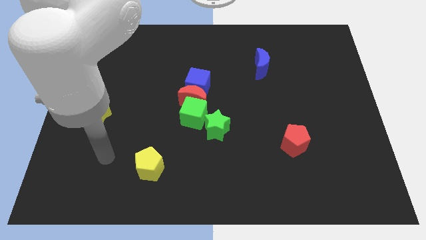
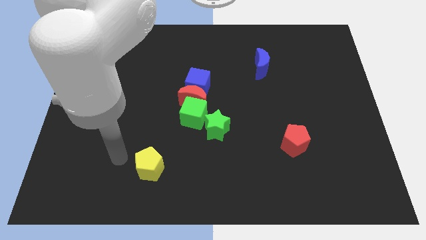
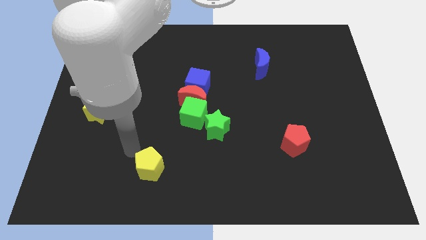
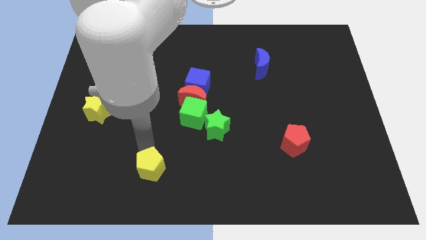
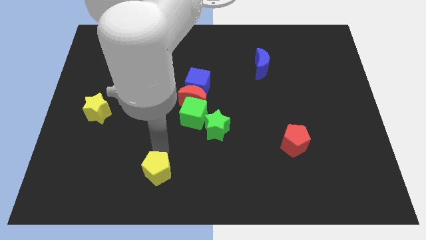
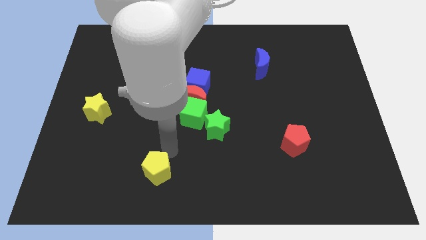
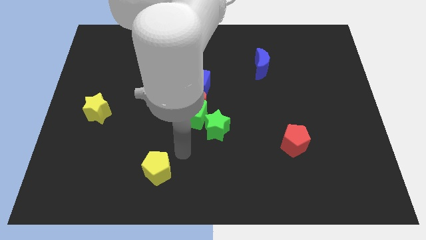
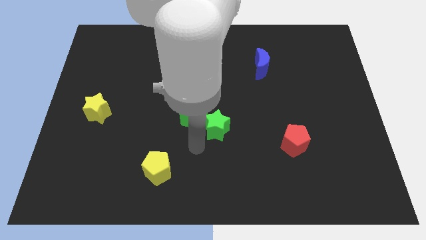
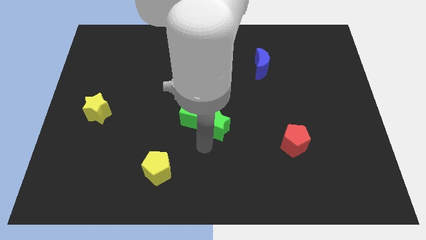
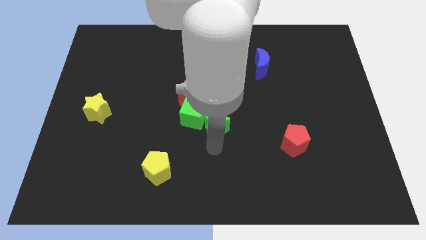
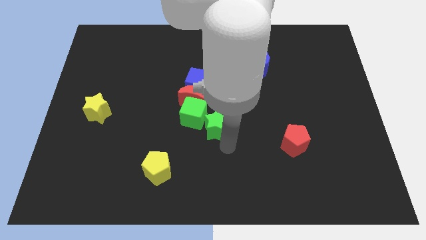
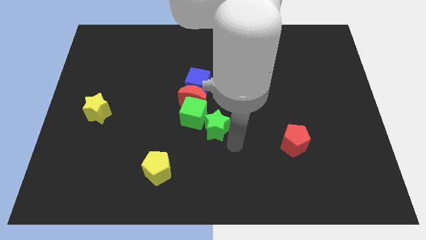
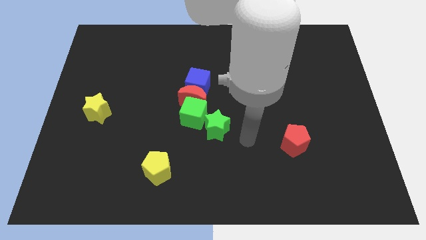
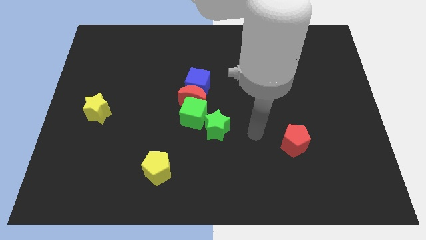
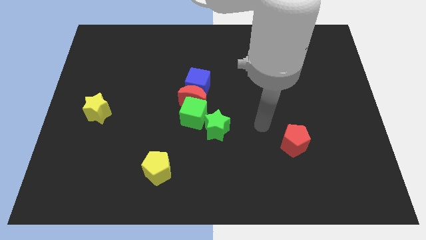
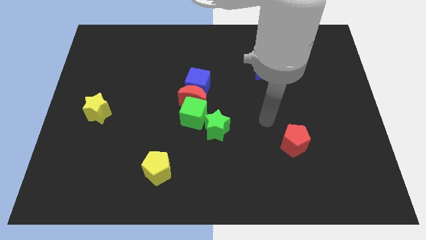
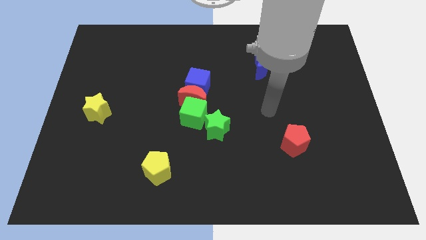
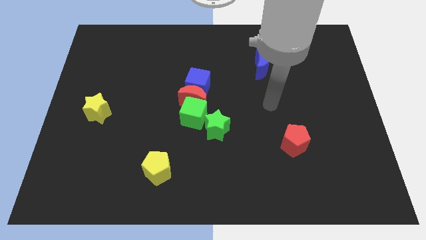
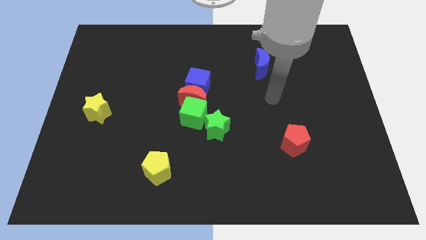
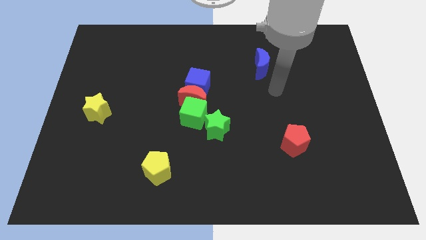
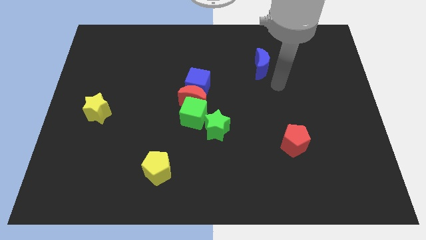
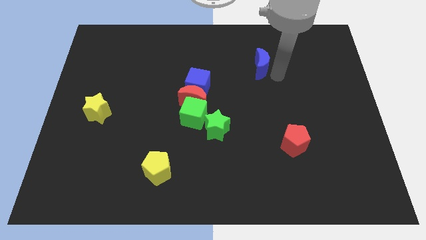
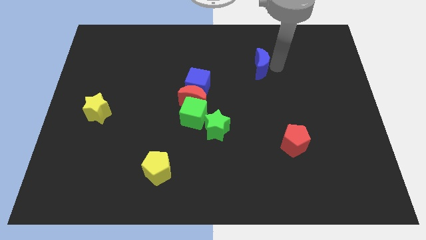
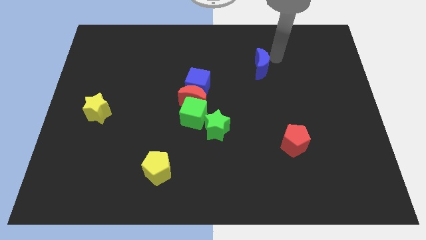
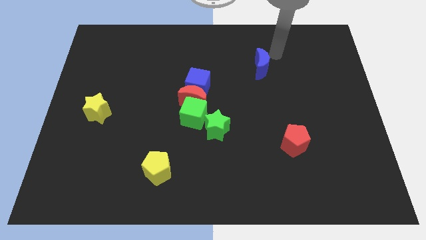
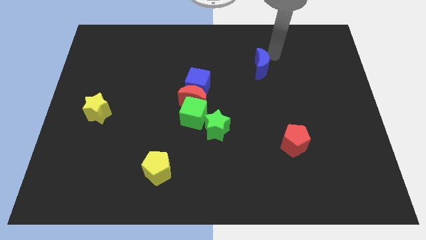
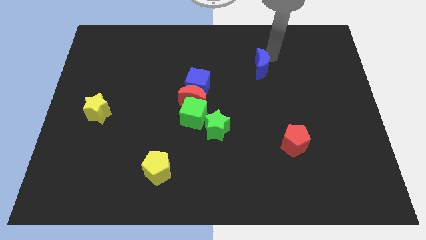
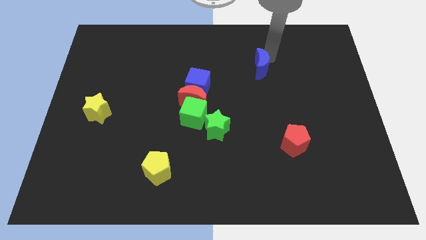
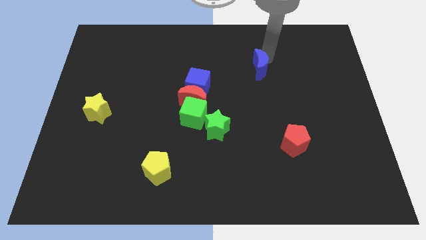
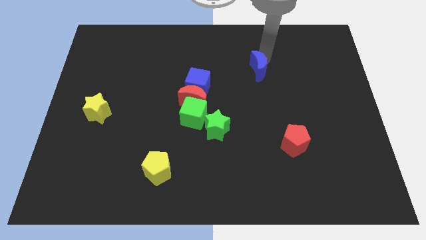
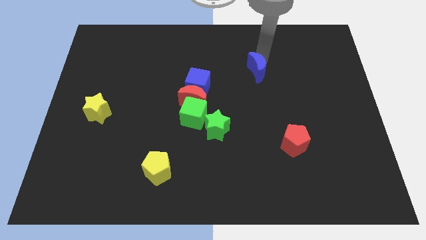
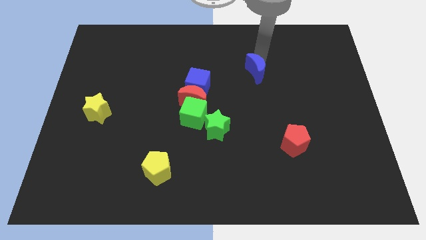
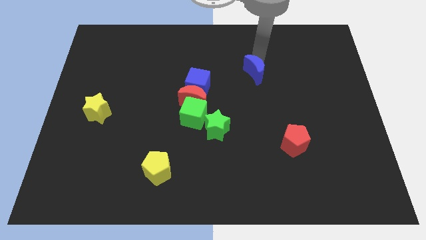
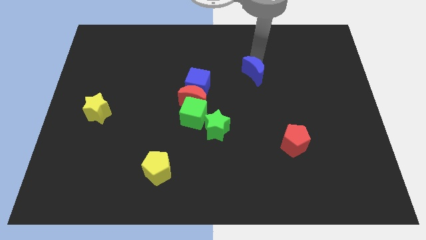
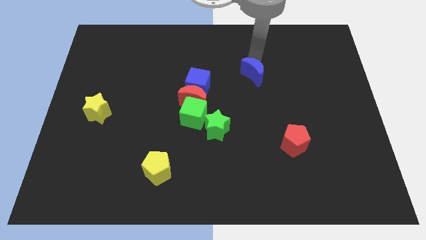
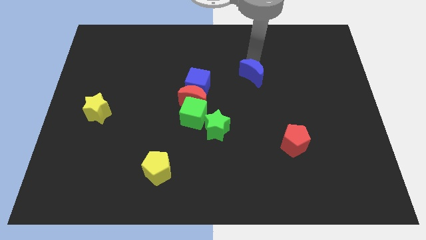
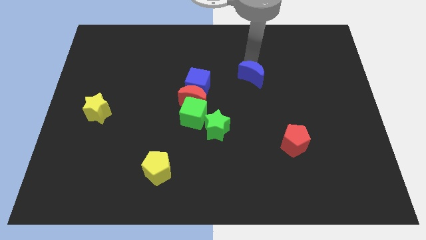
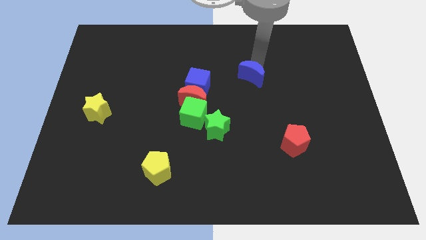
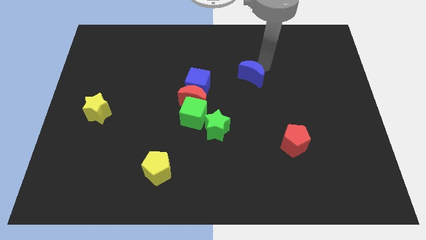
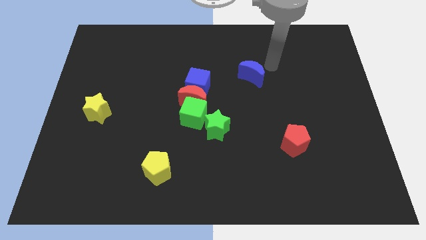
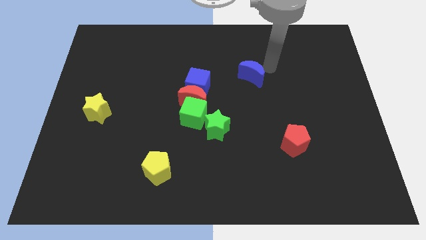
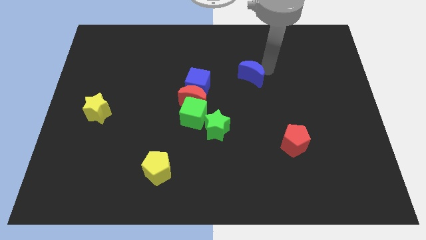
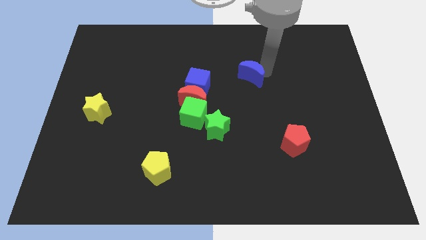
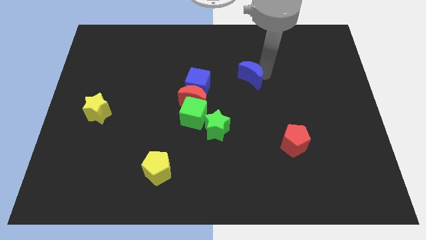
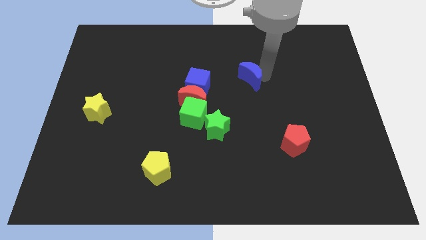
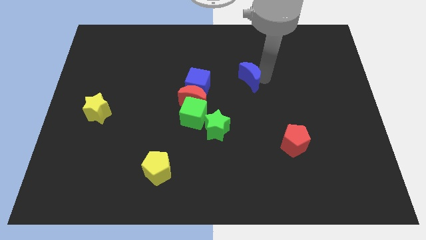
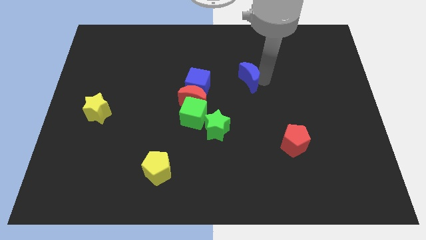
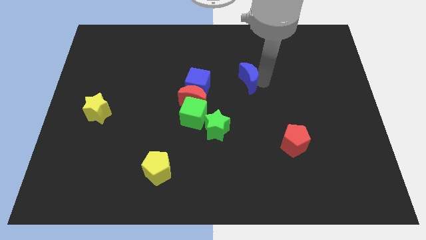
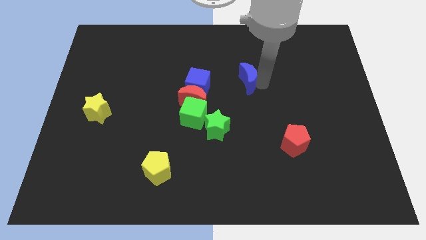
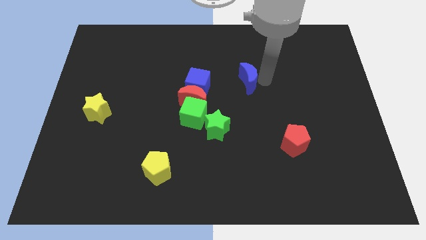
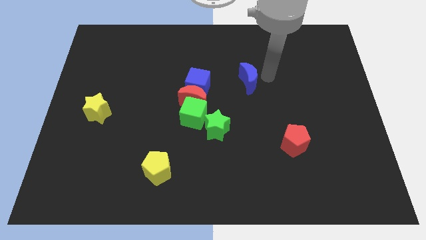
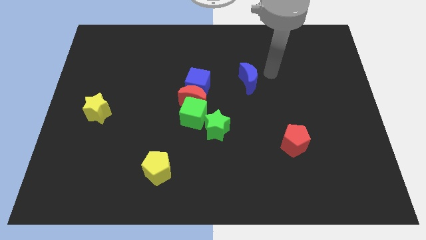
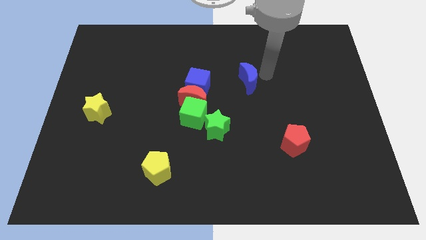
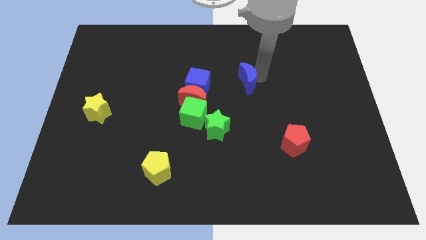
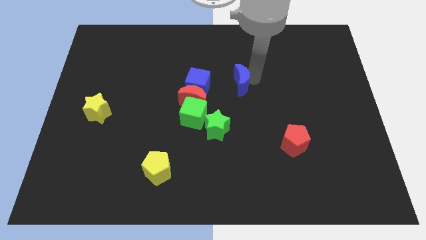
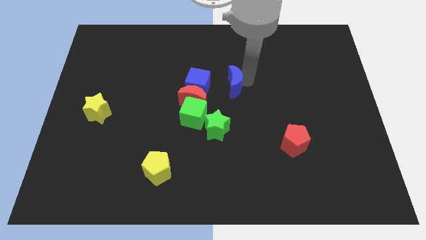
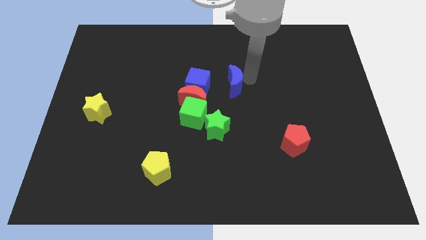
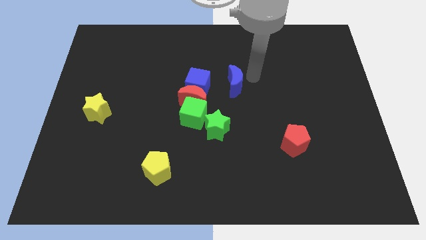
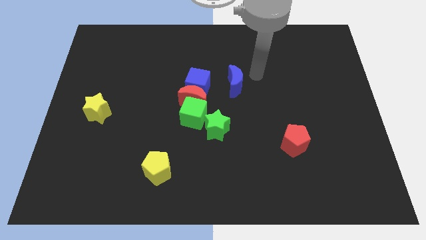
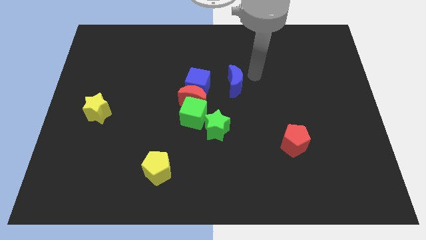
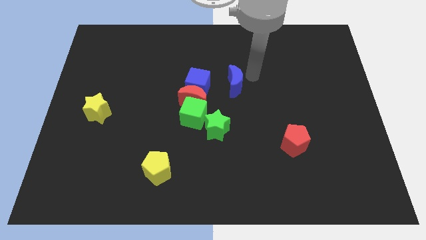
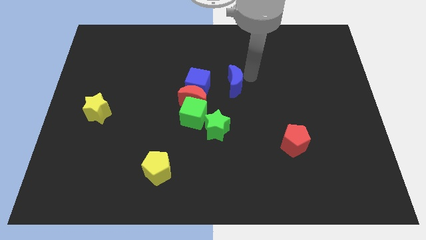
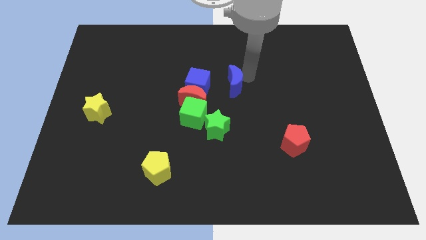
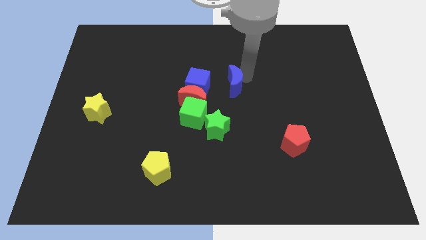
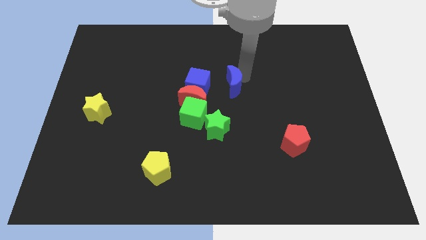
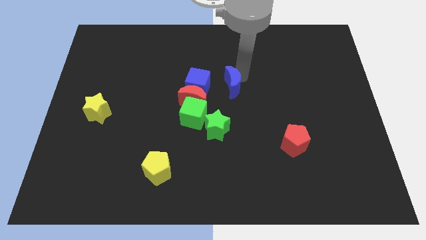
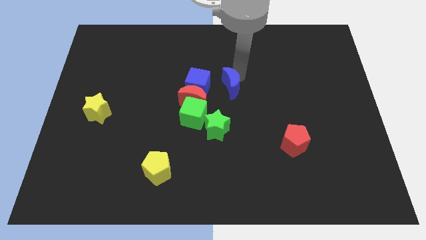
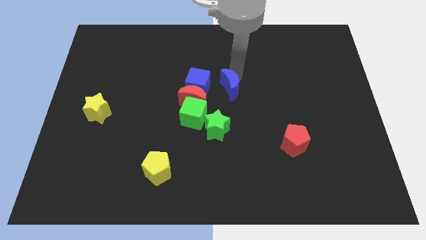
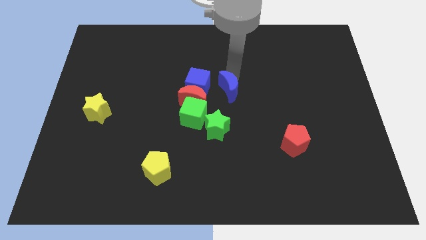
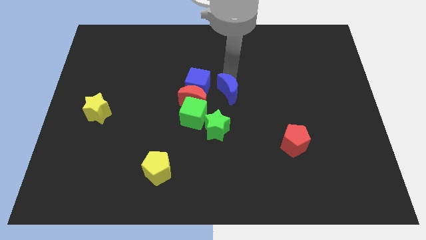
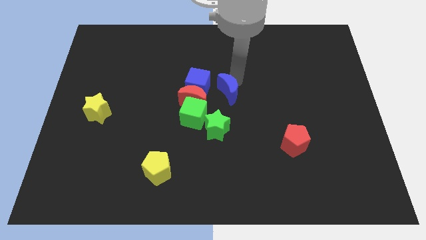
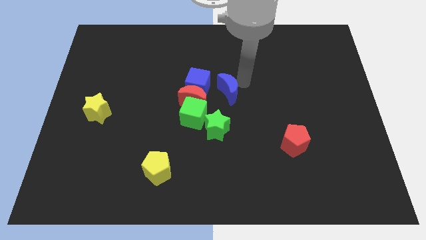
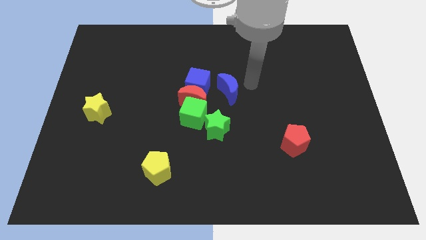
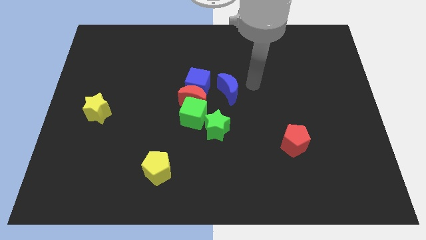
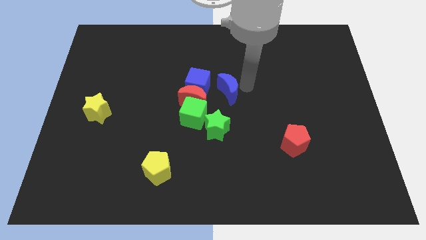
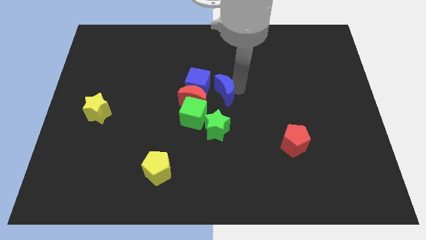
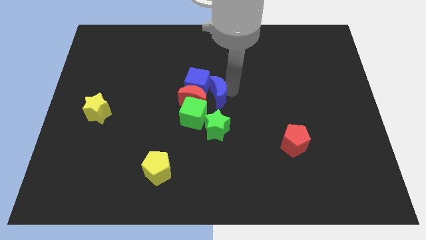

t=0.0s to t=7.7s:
move the blue moon close to the red moon
